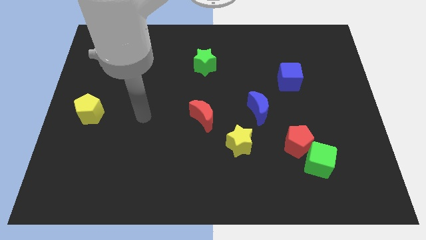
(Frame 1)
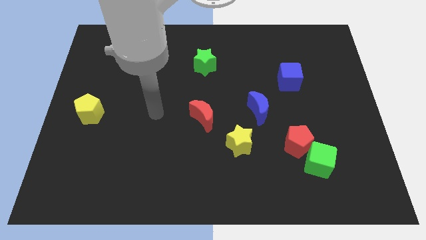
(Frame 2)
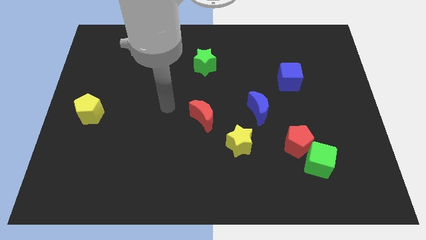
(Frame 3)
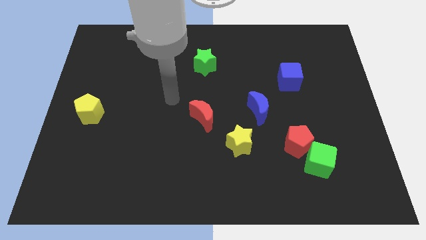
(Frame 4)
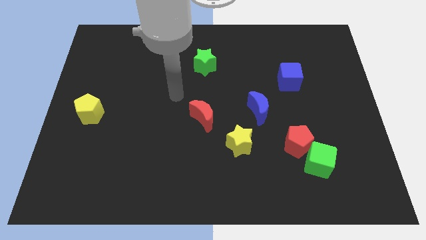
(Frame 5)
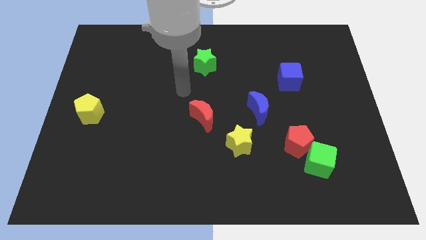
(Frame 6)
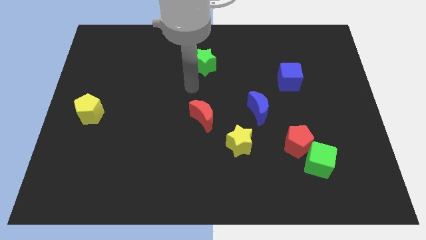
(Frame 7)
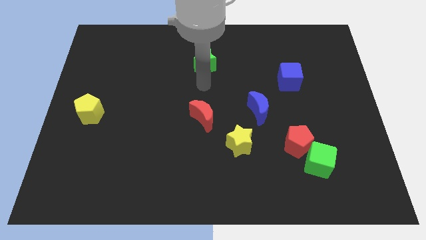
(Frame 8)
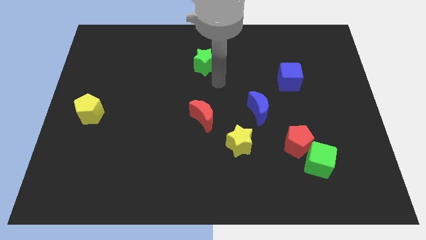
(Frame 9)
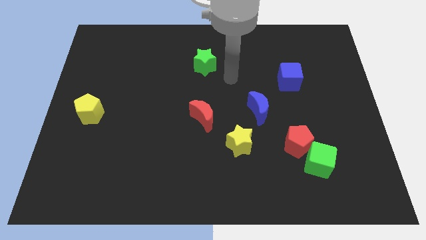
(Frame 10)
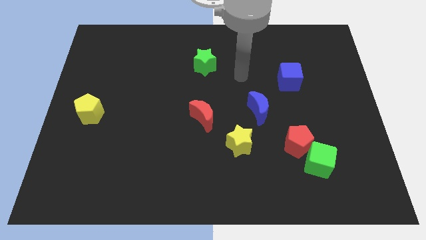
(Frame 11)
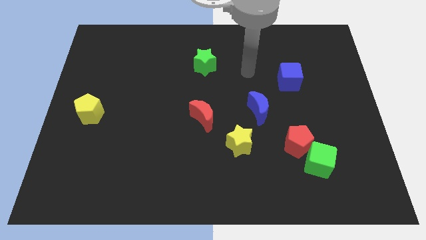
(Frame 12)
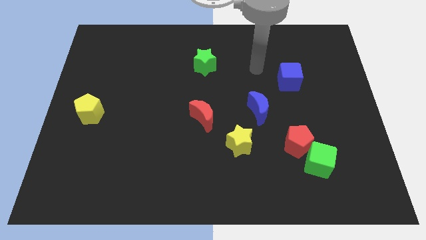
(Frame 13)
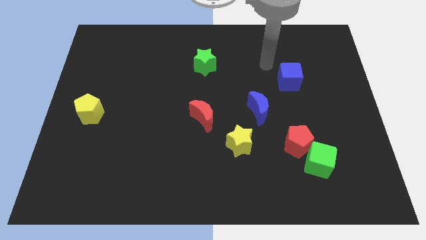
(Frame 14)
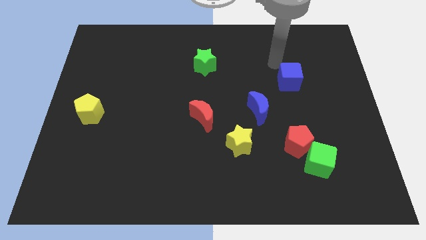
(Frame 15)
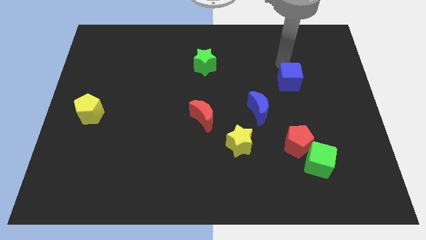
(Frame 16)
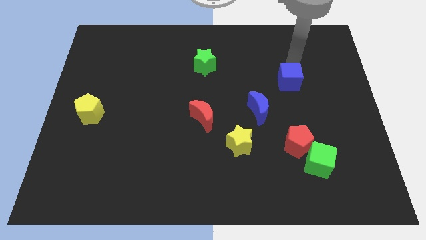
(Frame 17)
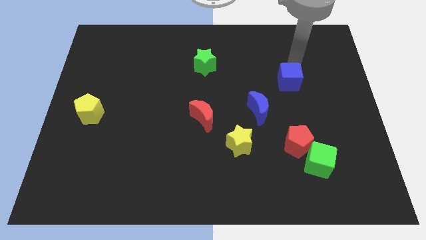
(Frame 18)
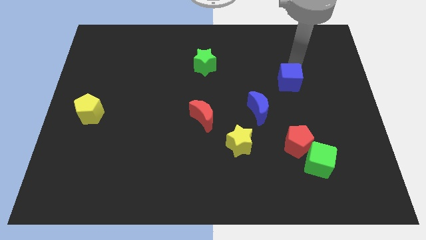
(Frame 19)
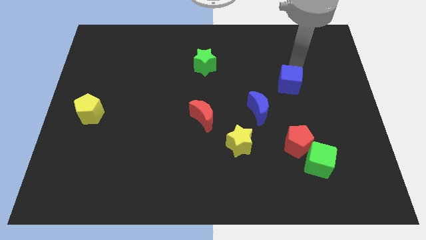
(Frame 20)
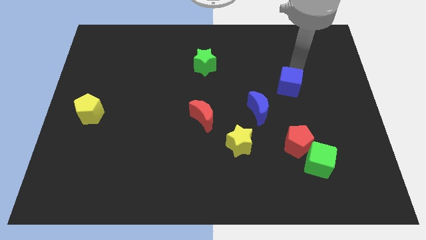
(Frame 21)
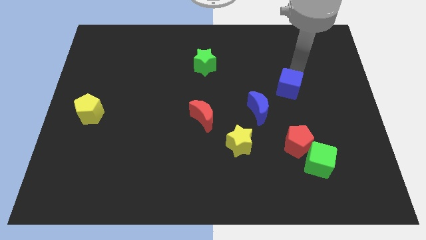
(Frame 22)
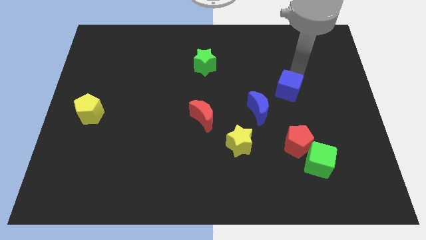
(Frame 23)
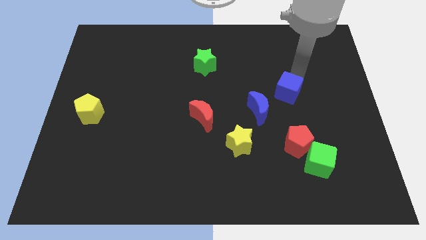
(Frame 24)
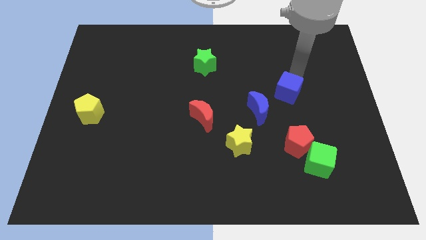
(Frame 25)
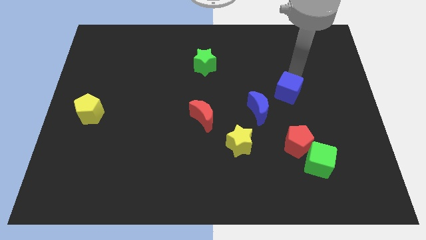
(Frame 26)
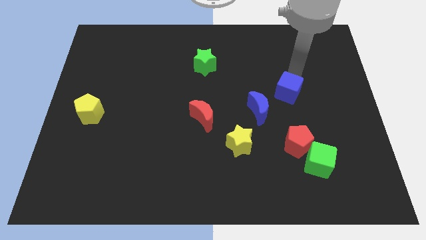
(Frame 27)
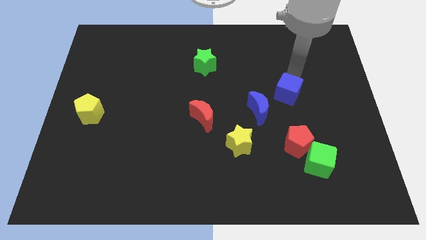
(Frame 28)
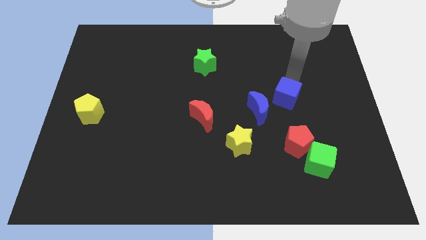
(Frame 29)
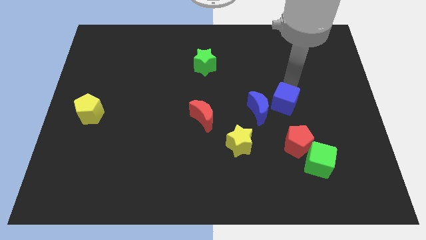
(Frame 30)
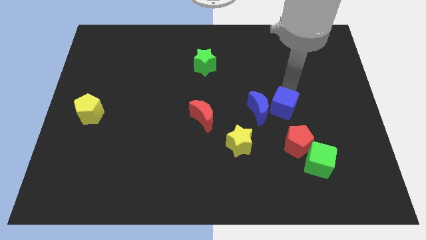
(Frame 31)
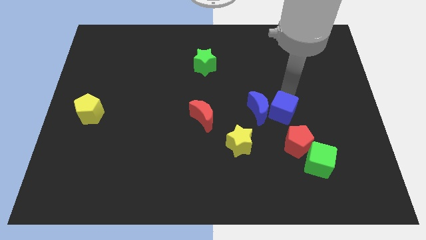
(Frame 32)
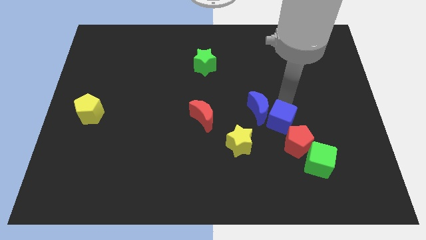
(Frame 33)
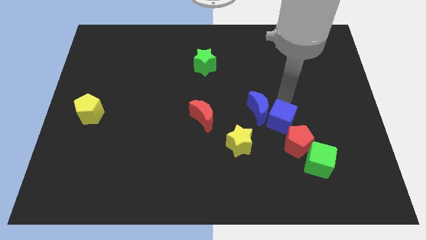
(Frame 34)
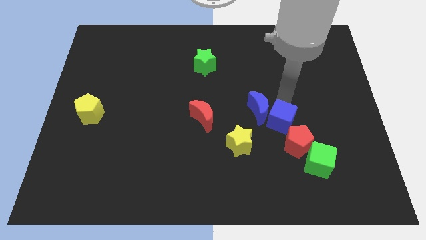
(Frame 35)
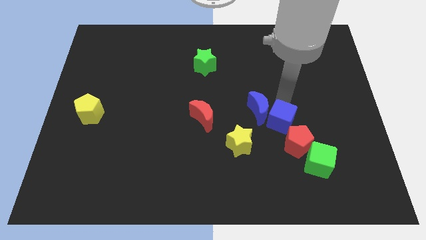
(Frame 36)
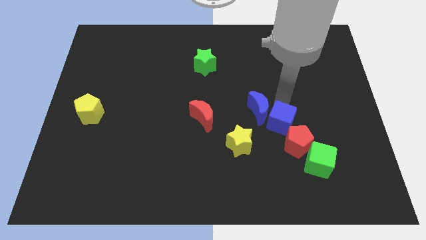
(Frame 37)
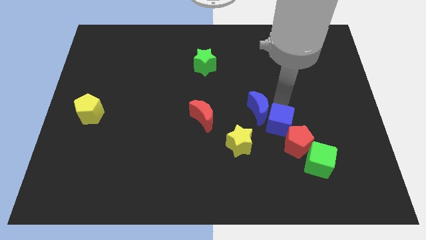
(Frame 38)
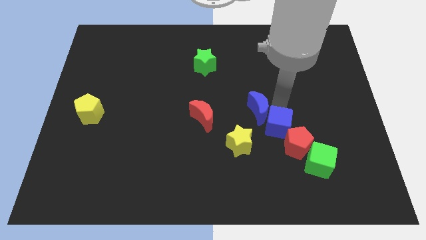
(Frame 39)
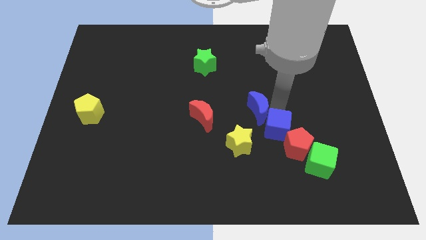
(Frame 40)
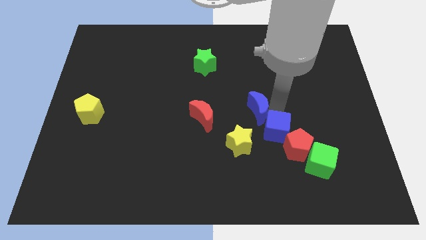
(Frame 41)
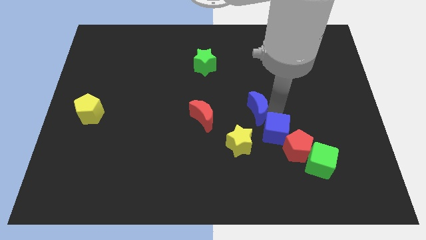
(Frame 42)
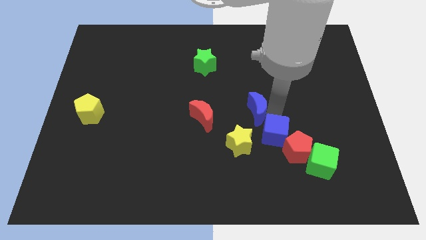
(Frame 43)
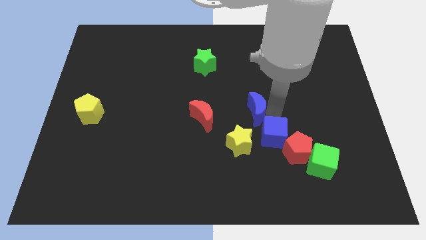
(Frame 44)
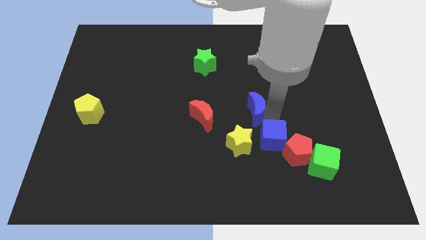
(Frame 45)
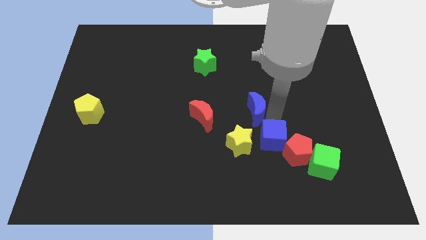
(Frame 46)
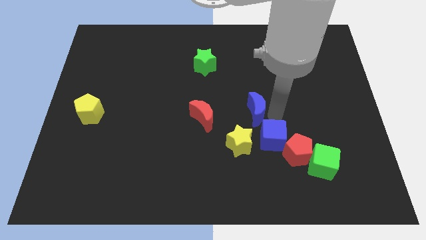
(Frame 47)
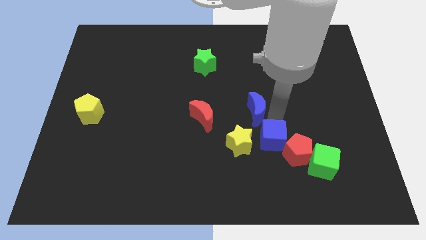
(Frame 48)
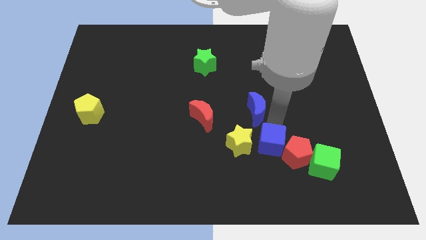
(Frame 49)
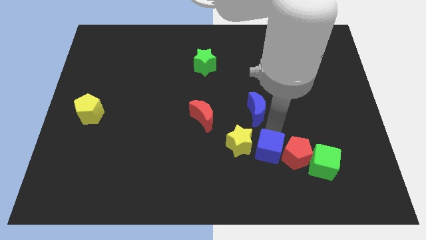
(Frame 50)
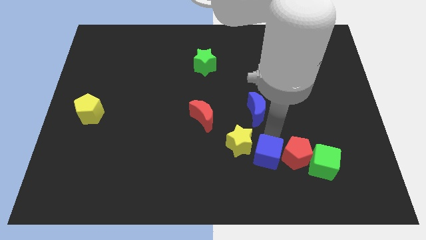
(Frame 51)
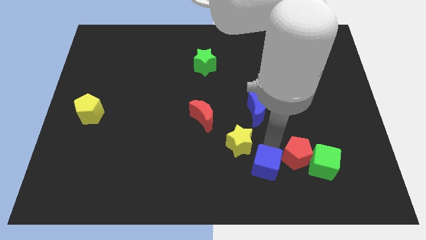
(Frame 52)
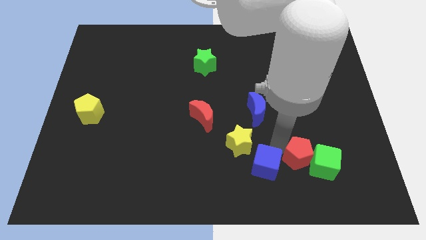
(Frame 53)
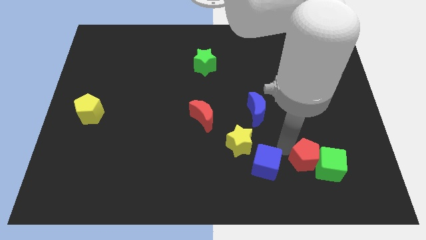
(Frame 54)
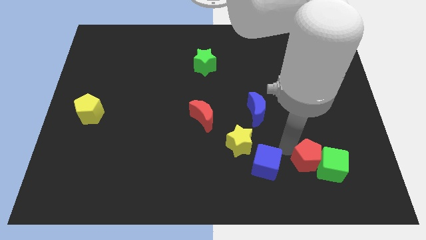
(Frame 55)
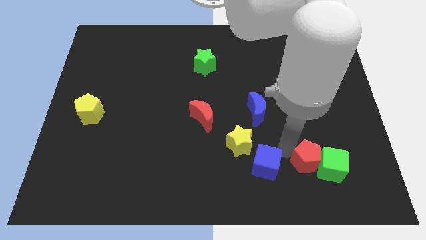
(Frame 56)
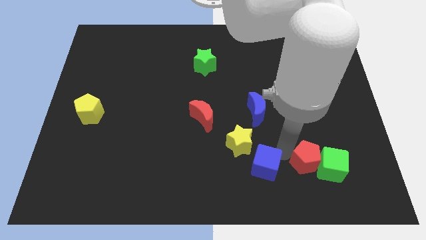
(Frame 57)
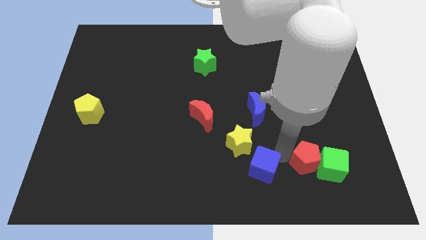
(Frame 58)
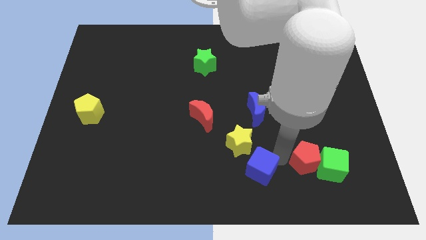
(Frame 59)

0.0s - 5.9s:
push the blue cube to the bottom
